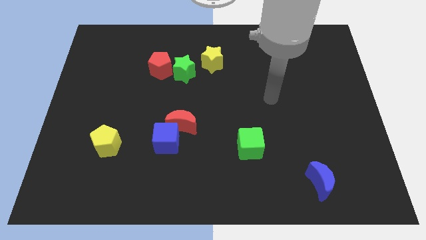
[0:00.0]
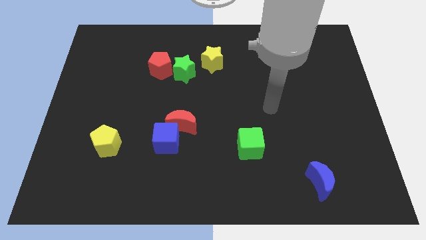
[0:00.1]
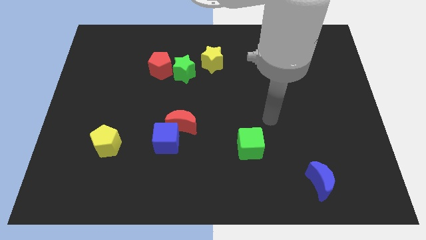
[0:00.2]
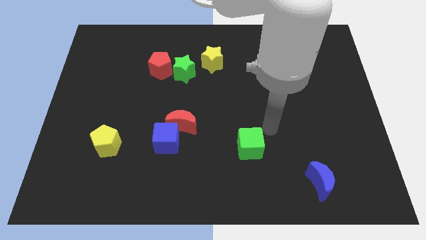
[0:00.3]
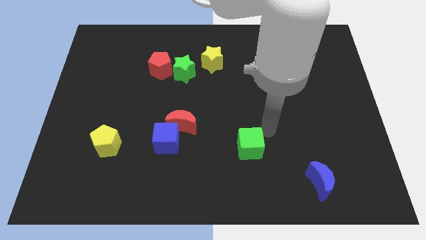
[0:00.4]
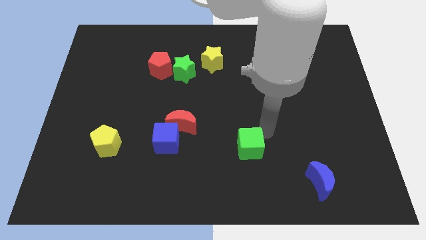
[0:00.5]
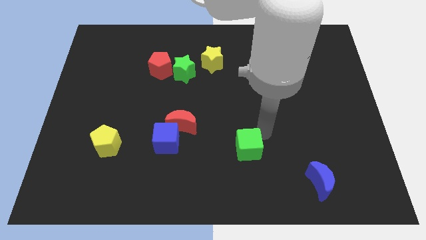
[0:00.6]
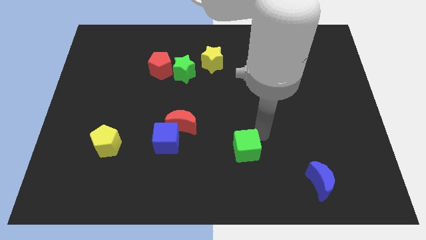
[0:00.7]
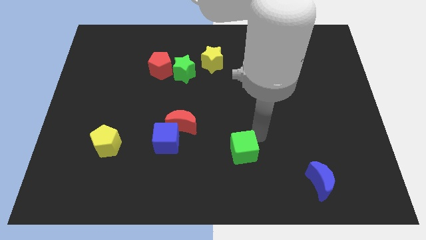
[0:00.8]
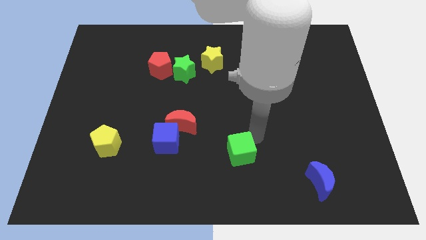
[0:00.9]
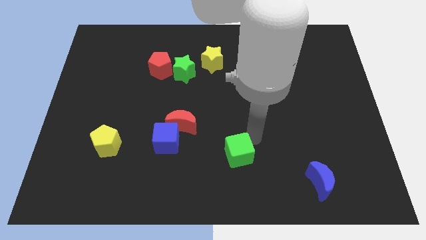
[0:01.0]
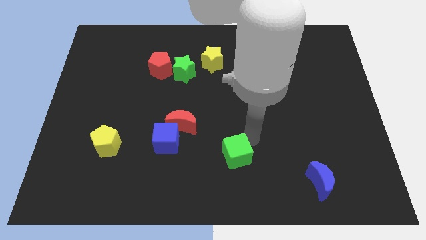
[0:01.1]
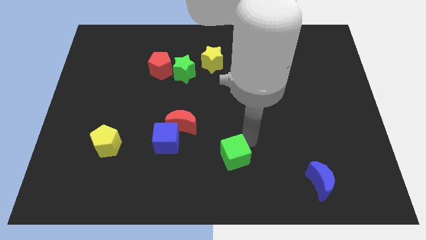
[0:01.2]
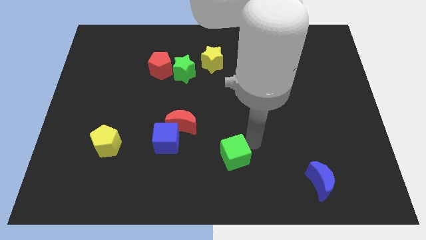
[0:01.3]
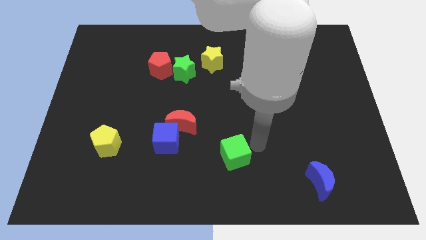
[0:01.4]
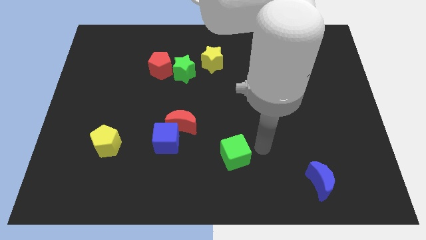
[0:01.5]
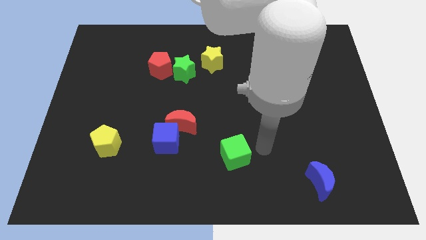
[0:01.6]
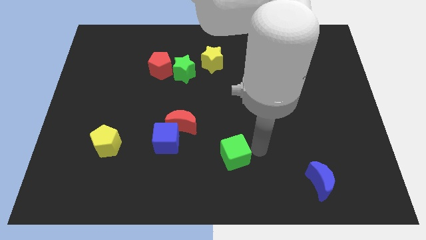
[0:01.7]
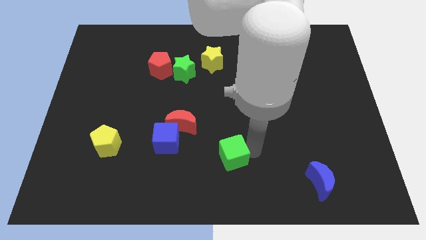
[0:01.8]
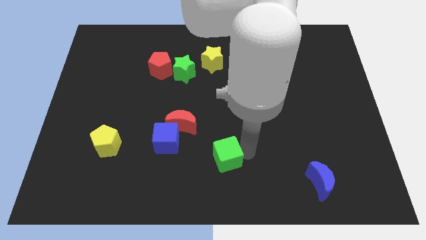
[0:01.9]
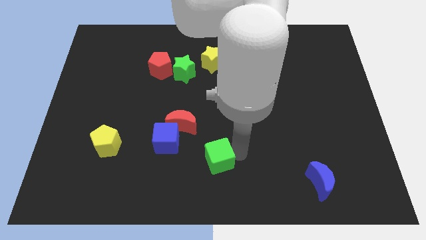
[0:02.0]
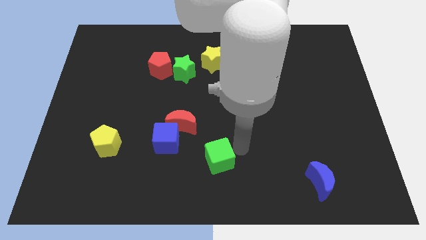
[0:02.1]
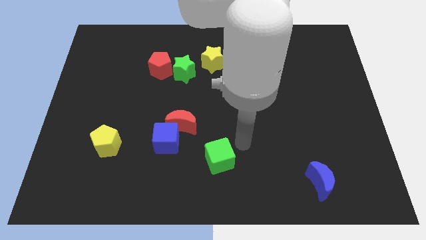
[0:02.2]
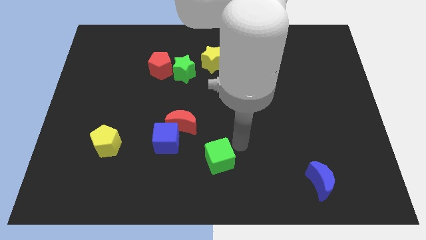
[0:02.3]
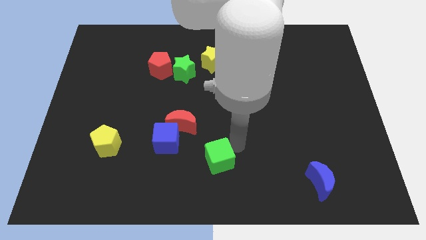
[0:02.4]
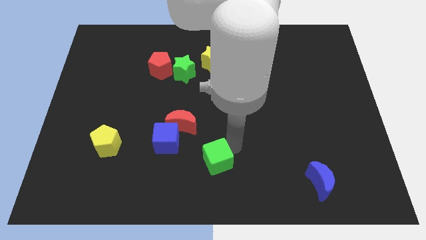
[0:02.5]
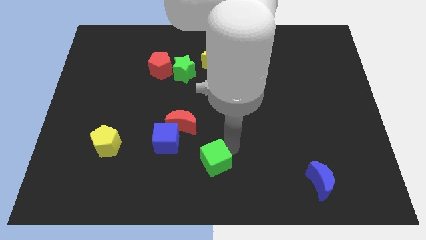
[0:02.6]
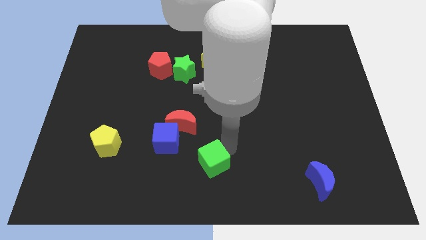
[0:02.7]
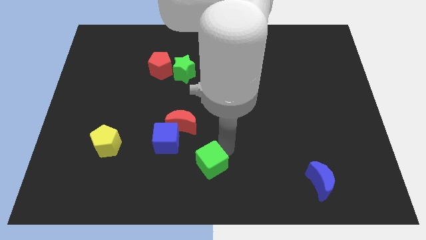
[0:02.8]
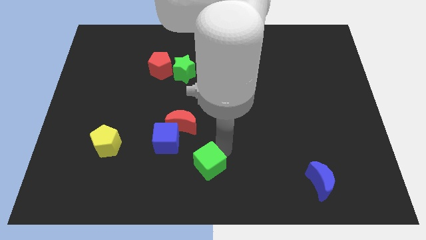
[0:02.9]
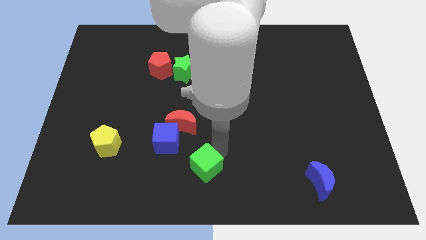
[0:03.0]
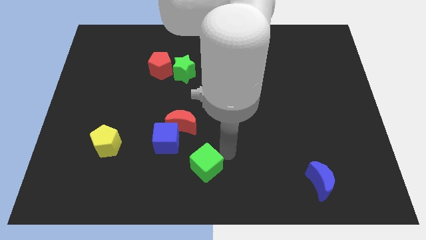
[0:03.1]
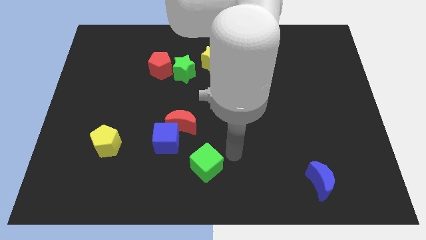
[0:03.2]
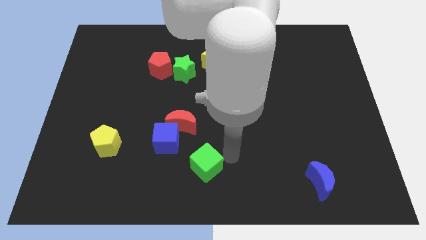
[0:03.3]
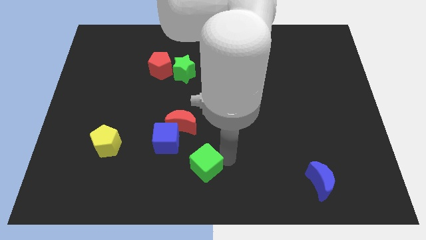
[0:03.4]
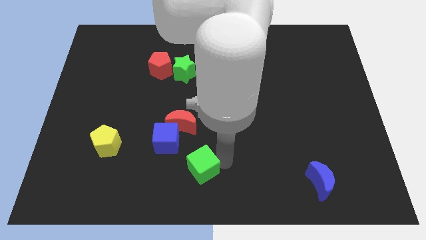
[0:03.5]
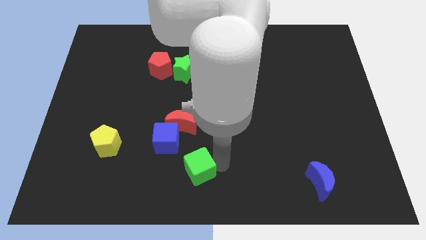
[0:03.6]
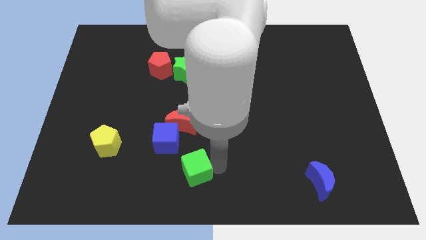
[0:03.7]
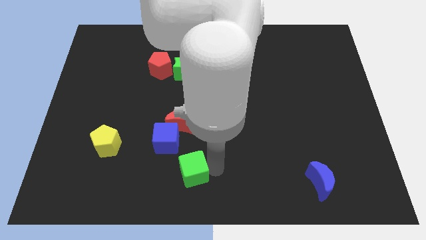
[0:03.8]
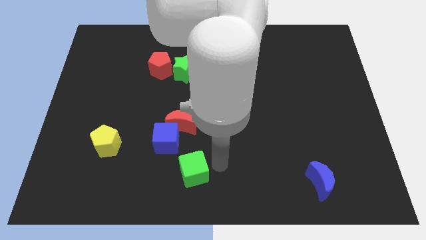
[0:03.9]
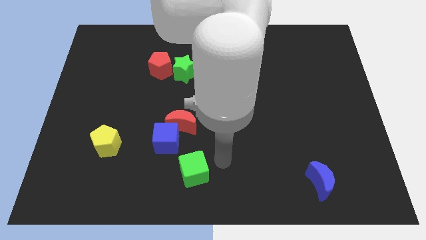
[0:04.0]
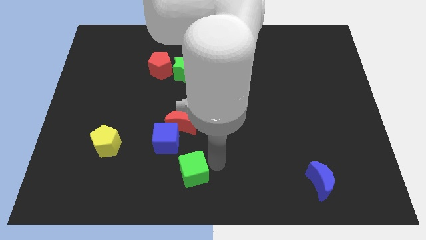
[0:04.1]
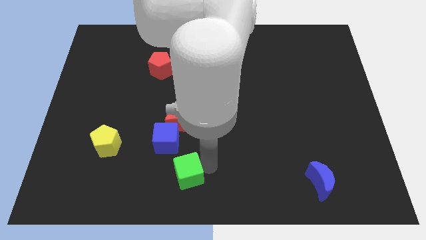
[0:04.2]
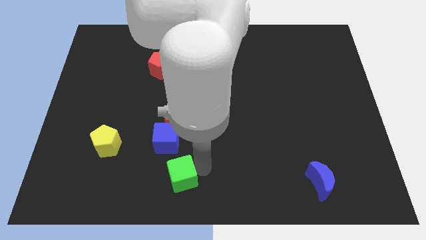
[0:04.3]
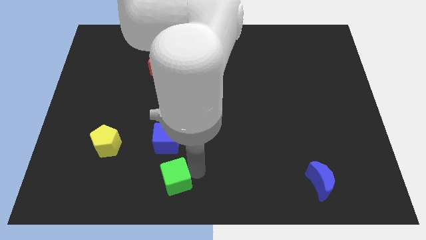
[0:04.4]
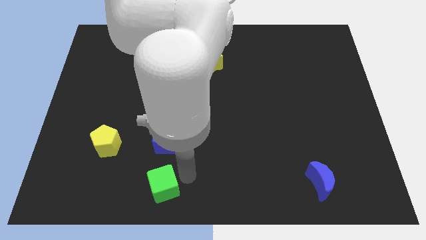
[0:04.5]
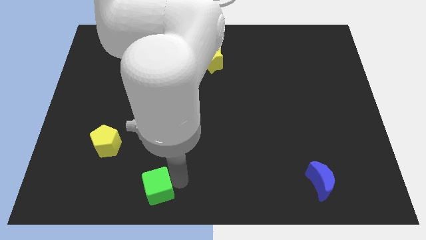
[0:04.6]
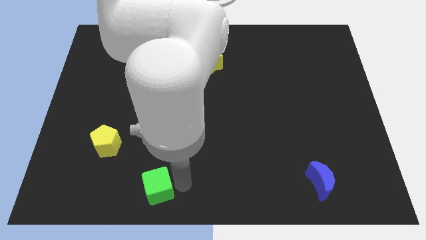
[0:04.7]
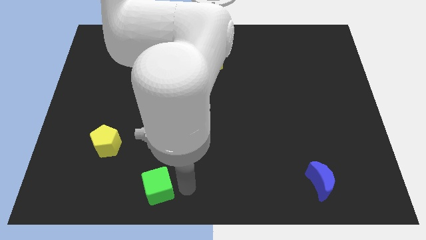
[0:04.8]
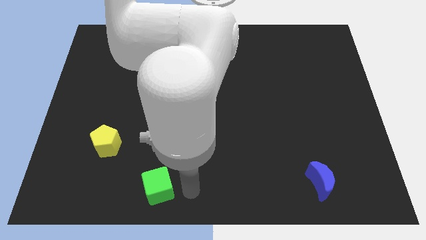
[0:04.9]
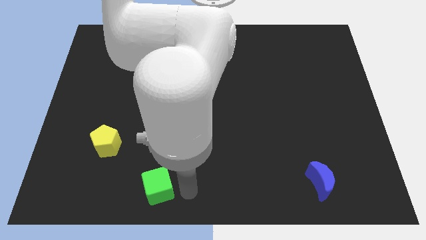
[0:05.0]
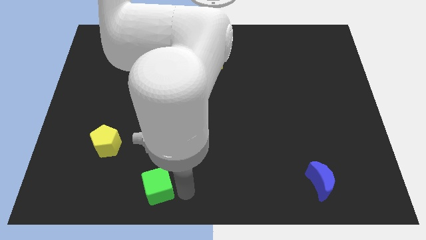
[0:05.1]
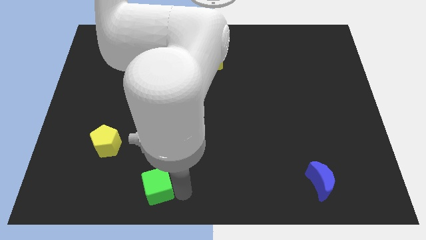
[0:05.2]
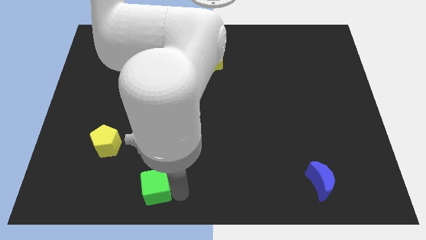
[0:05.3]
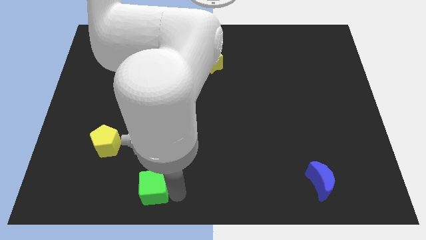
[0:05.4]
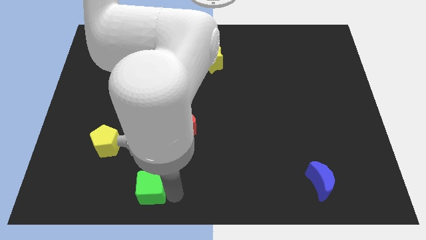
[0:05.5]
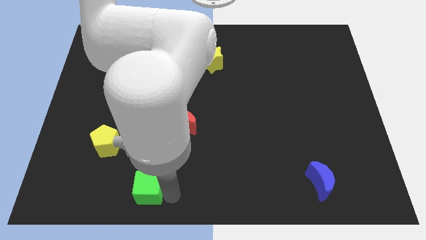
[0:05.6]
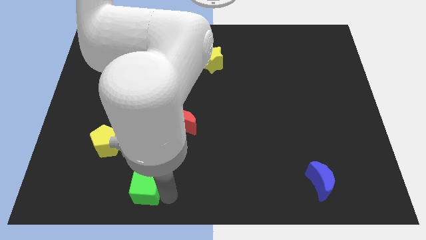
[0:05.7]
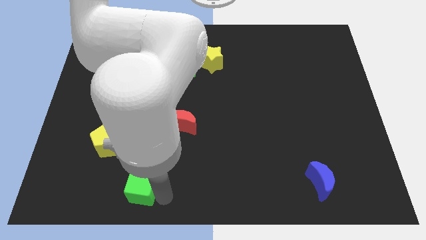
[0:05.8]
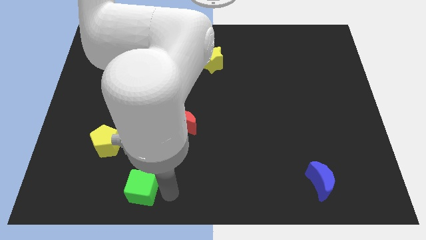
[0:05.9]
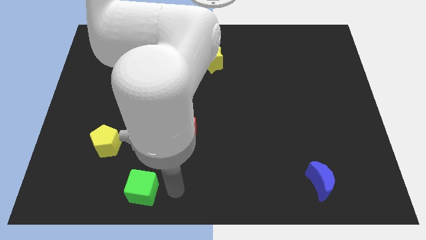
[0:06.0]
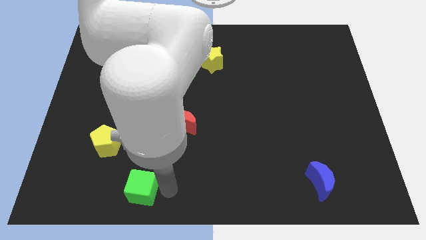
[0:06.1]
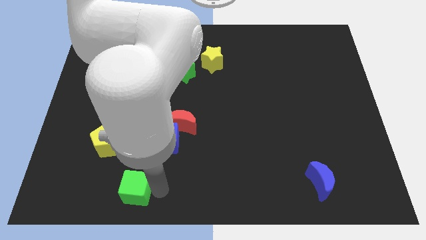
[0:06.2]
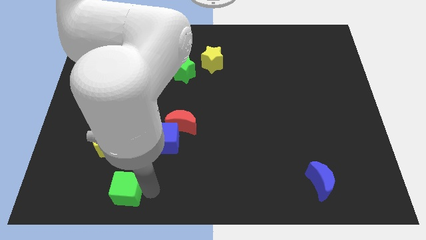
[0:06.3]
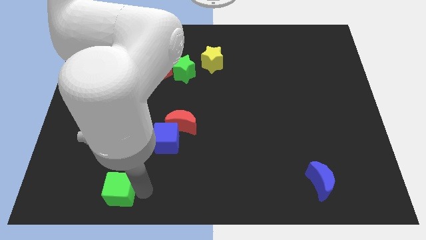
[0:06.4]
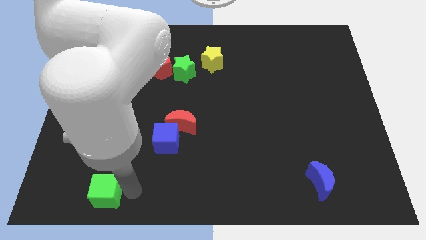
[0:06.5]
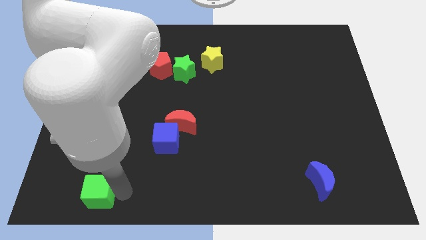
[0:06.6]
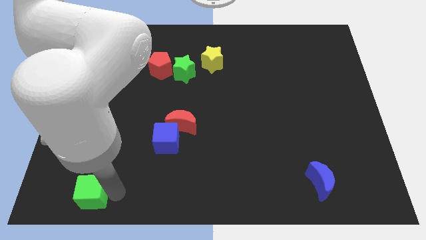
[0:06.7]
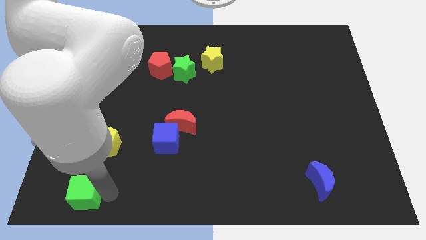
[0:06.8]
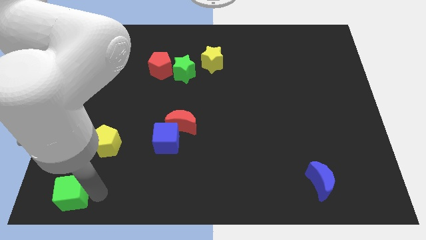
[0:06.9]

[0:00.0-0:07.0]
move the green cube to the lower left corner
